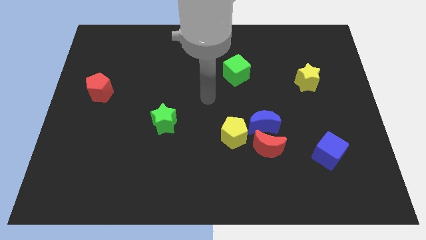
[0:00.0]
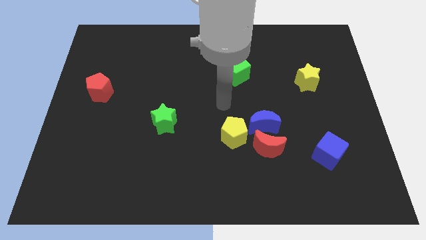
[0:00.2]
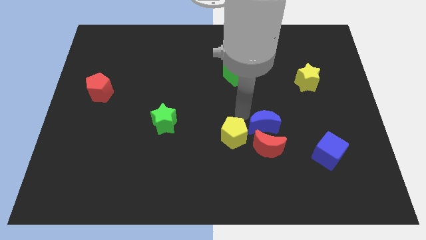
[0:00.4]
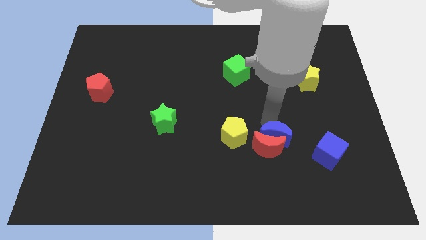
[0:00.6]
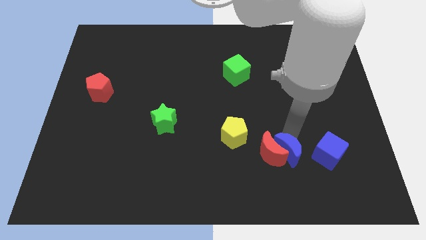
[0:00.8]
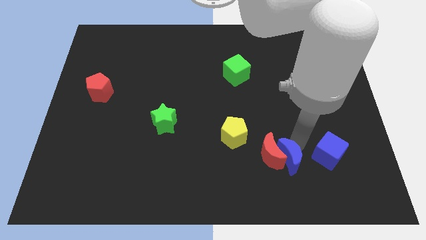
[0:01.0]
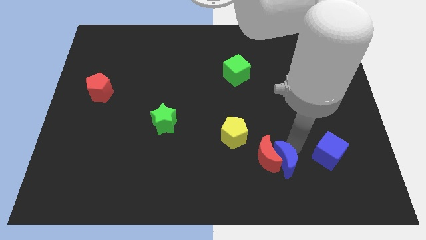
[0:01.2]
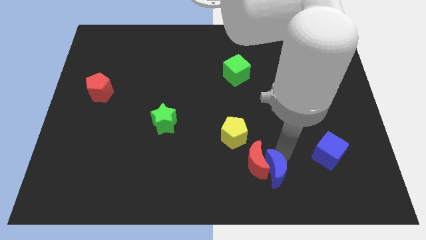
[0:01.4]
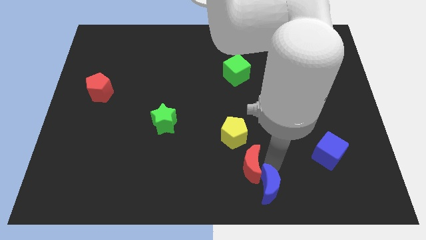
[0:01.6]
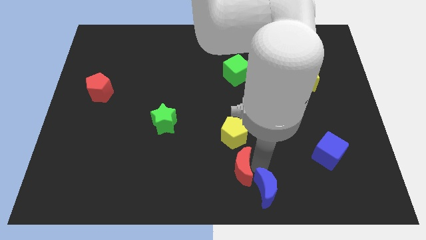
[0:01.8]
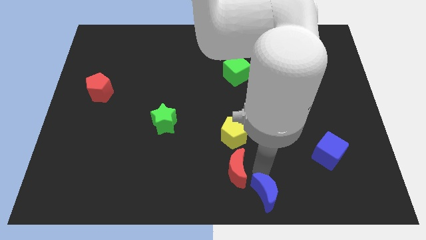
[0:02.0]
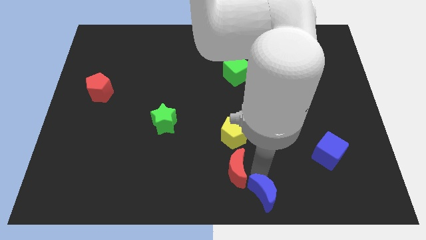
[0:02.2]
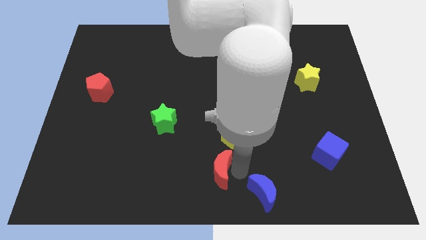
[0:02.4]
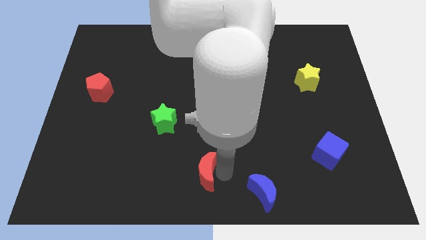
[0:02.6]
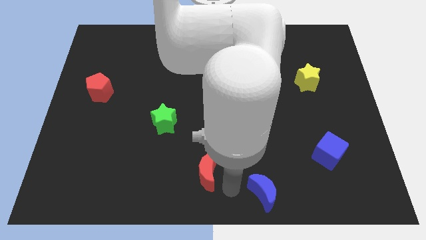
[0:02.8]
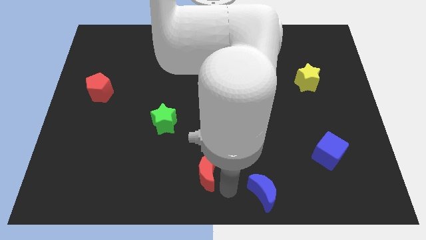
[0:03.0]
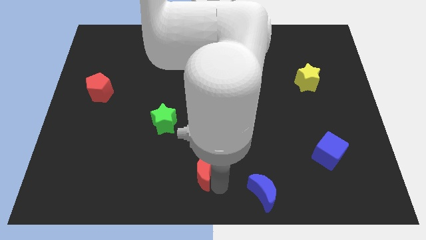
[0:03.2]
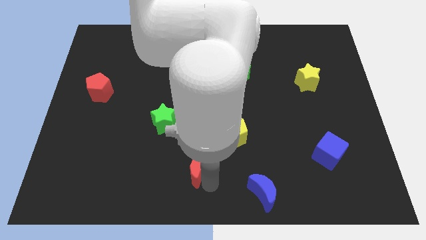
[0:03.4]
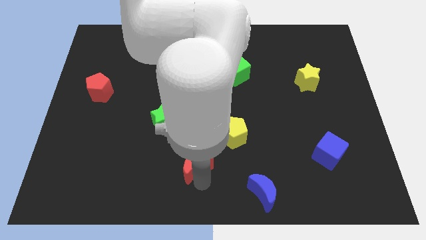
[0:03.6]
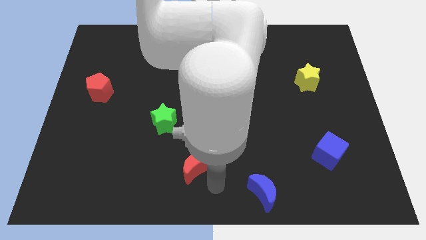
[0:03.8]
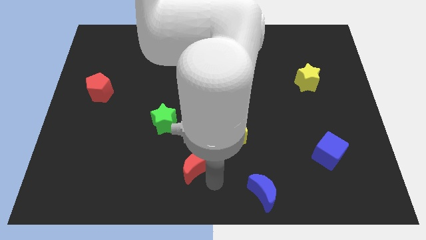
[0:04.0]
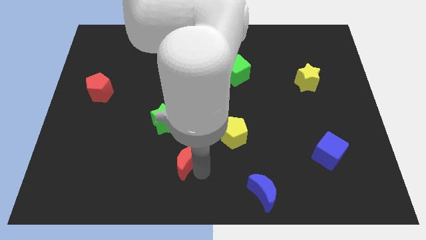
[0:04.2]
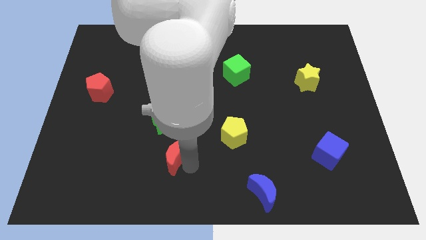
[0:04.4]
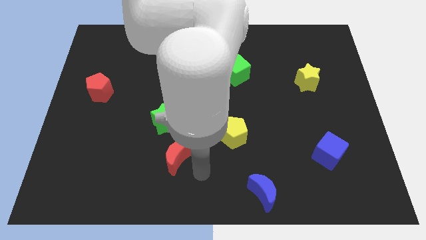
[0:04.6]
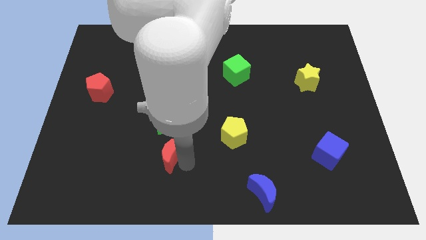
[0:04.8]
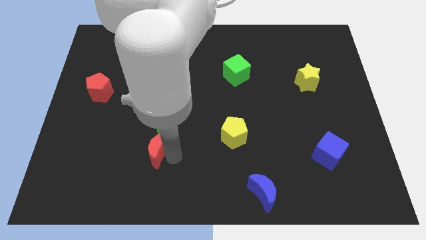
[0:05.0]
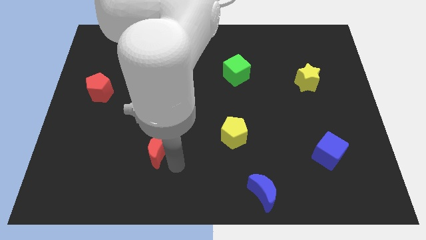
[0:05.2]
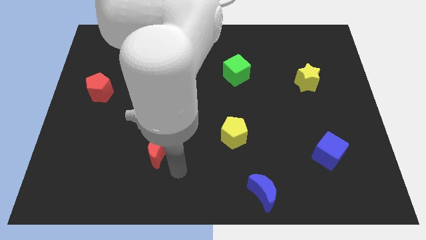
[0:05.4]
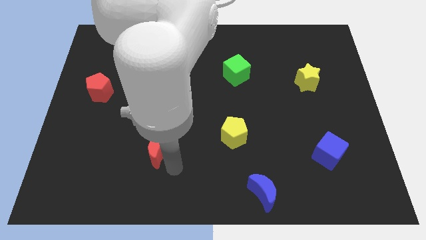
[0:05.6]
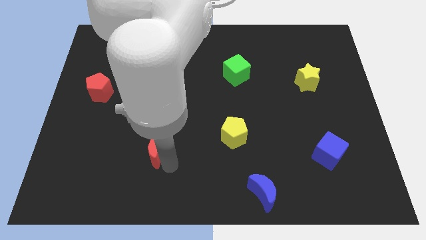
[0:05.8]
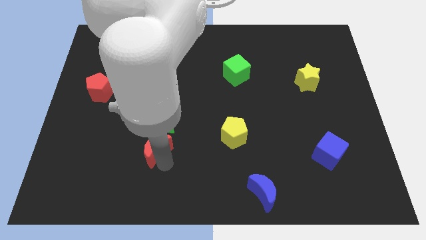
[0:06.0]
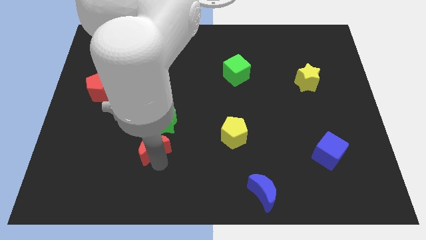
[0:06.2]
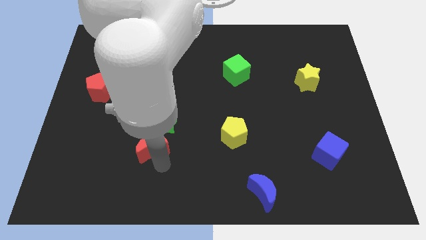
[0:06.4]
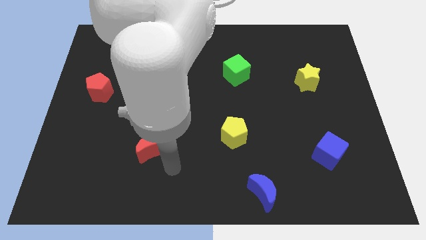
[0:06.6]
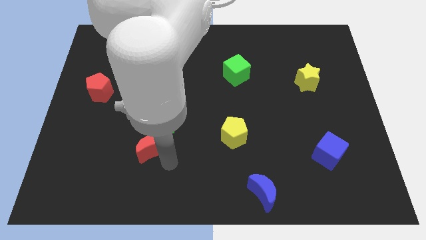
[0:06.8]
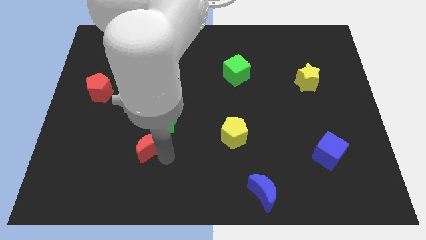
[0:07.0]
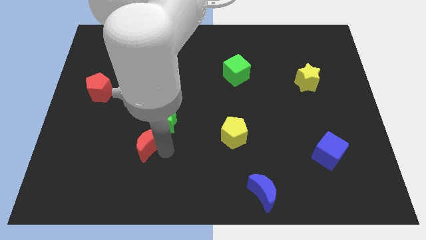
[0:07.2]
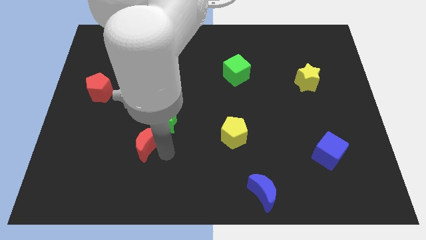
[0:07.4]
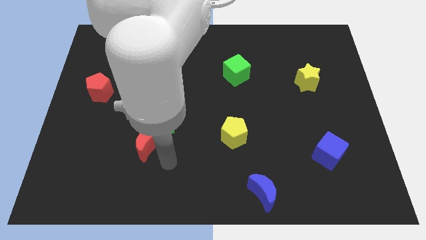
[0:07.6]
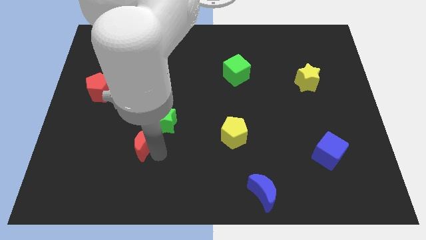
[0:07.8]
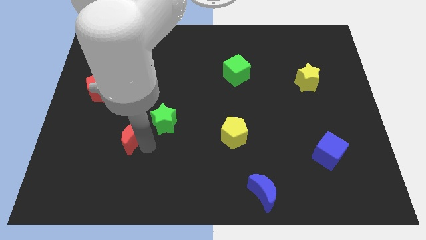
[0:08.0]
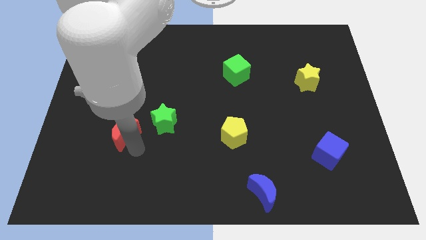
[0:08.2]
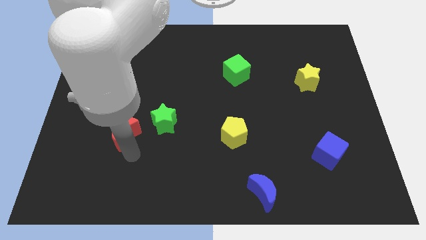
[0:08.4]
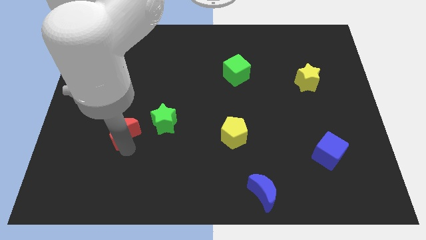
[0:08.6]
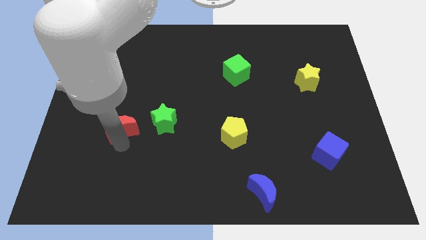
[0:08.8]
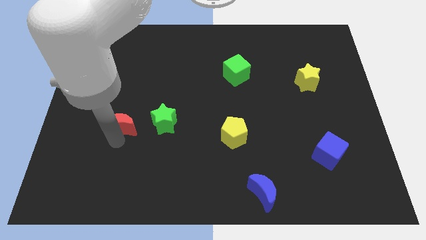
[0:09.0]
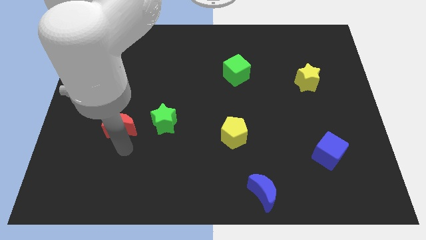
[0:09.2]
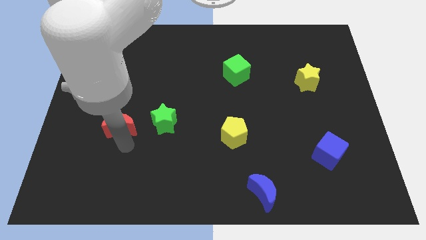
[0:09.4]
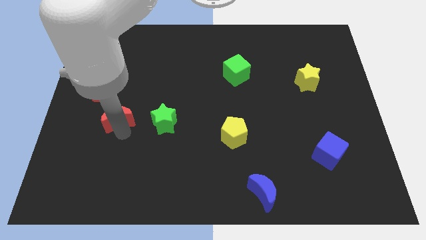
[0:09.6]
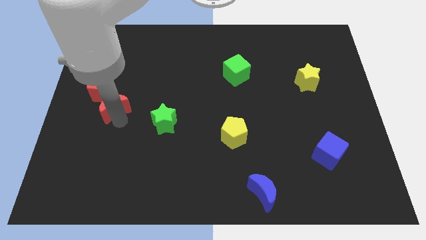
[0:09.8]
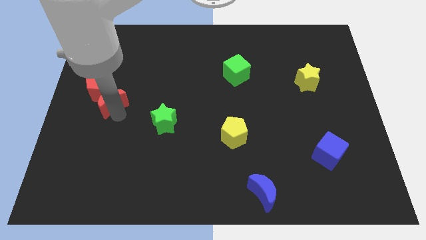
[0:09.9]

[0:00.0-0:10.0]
push the red moon to the red pentagon

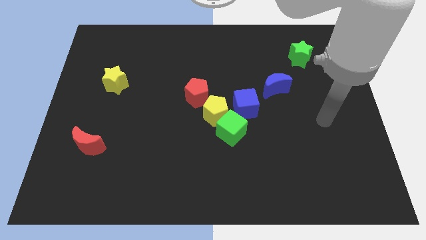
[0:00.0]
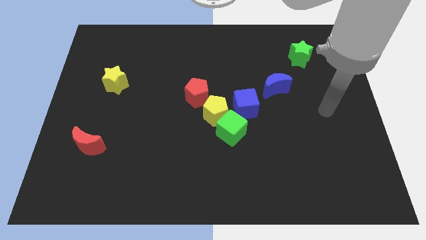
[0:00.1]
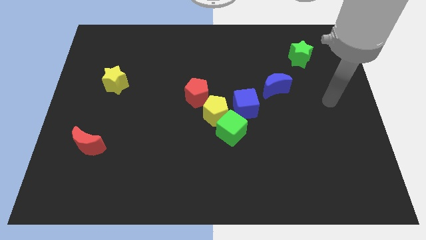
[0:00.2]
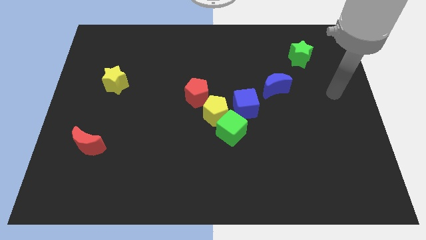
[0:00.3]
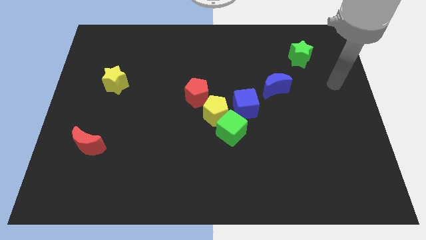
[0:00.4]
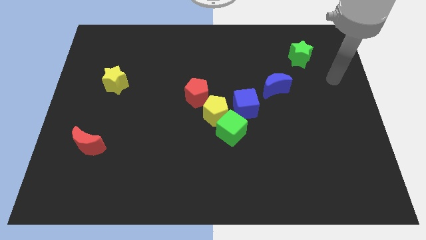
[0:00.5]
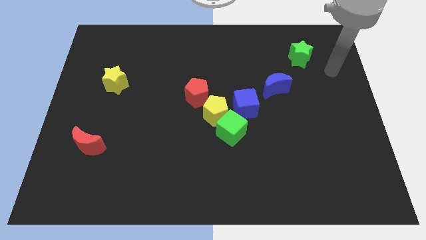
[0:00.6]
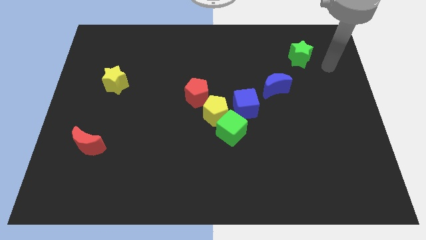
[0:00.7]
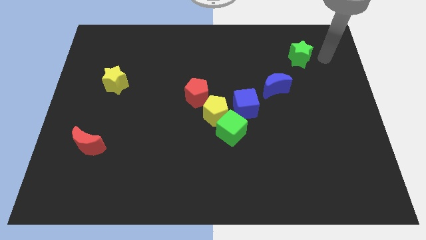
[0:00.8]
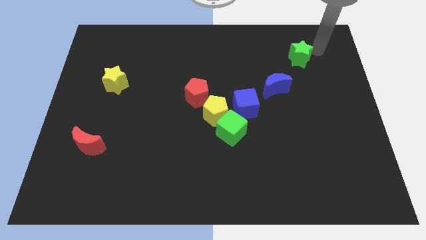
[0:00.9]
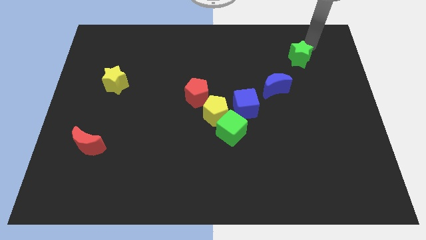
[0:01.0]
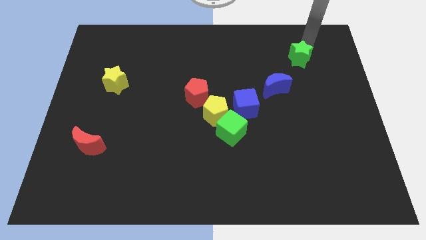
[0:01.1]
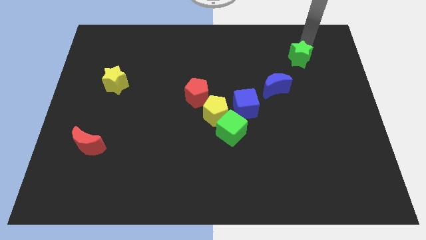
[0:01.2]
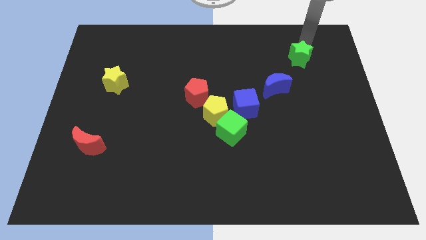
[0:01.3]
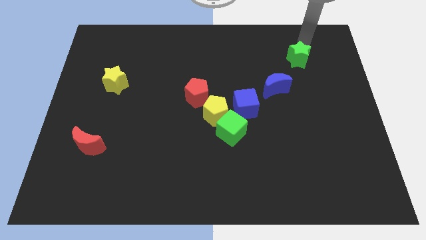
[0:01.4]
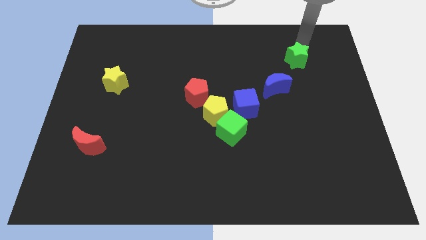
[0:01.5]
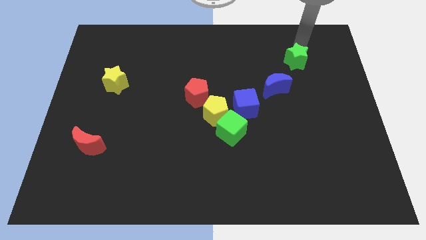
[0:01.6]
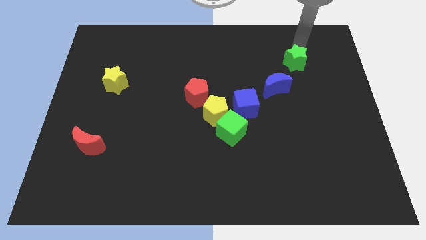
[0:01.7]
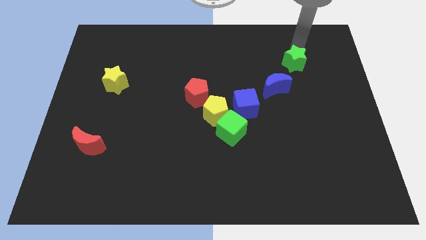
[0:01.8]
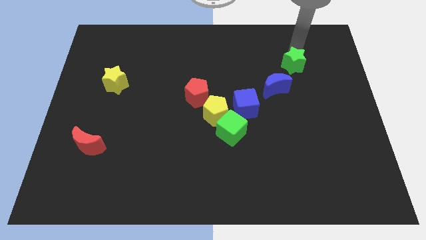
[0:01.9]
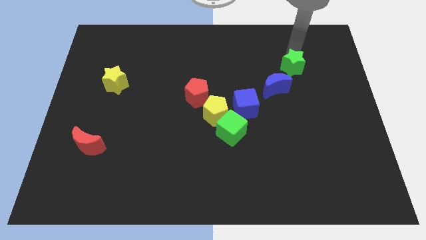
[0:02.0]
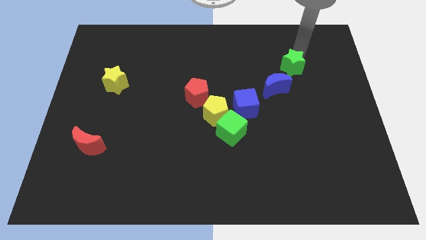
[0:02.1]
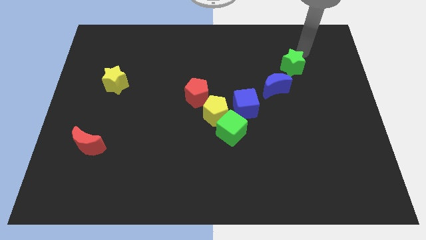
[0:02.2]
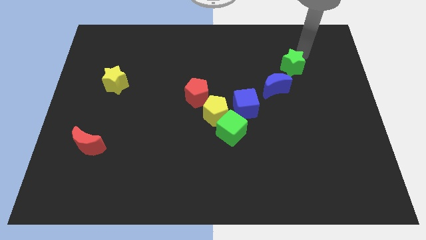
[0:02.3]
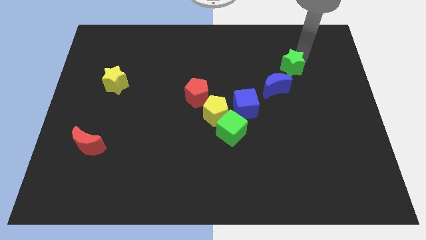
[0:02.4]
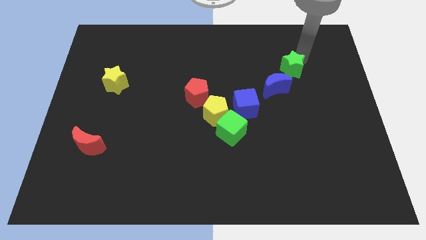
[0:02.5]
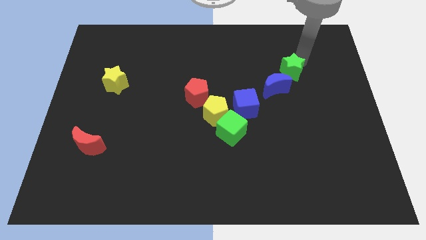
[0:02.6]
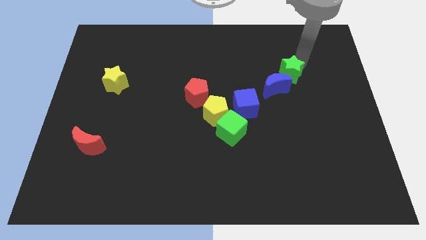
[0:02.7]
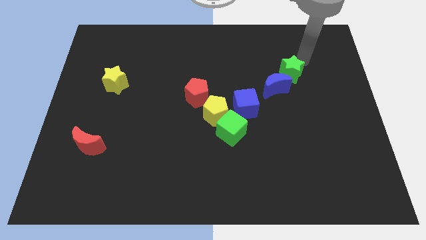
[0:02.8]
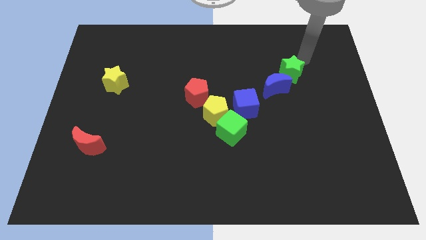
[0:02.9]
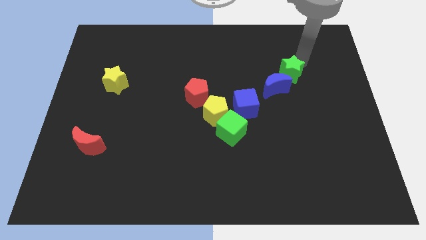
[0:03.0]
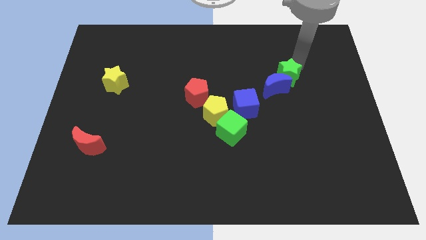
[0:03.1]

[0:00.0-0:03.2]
put the green star close to the blue moon
